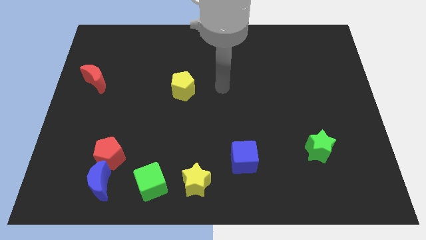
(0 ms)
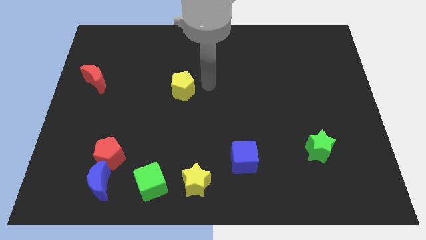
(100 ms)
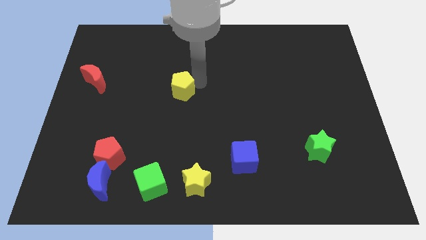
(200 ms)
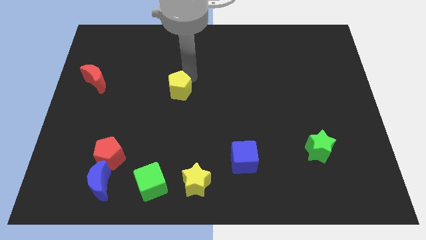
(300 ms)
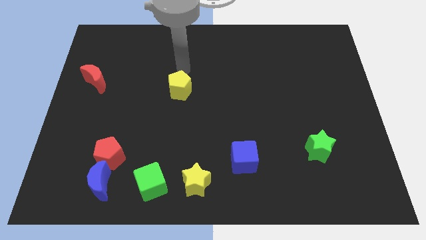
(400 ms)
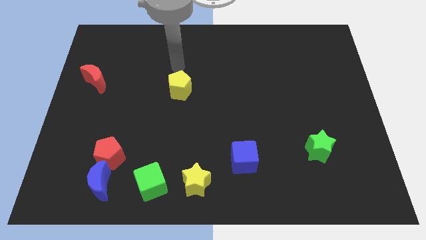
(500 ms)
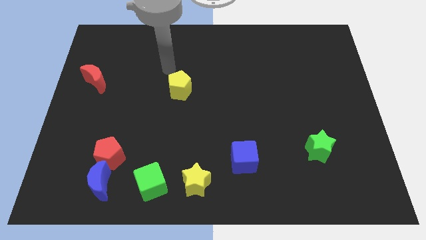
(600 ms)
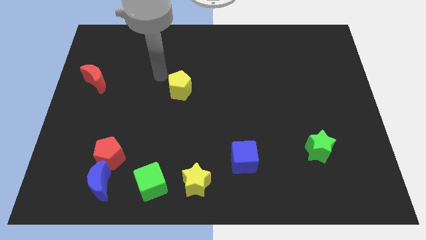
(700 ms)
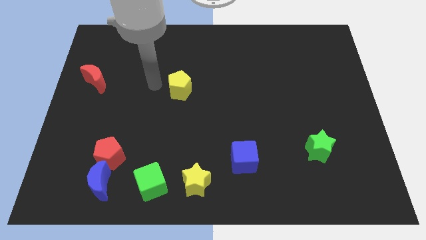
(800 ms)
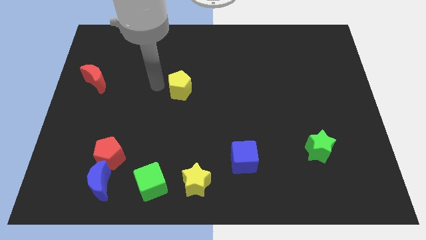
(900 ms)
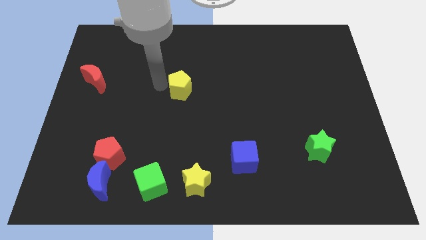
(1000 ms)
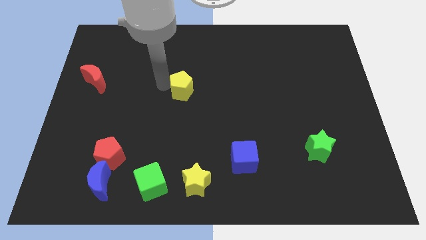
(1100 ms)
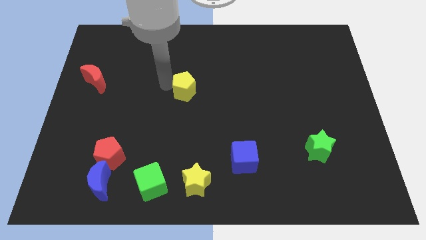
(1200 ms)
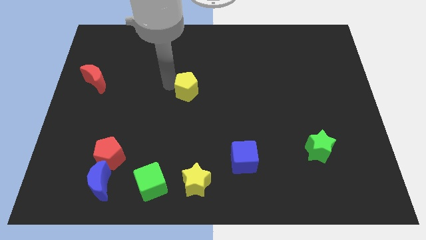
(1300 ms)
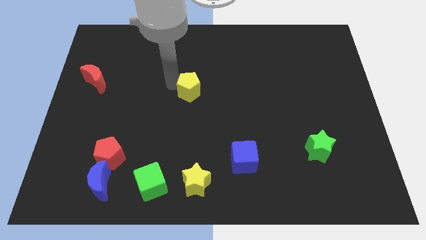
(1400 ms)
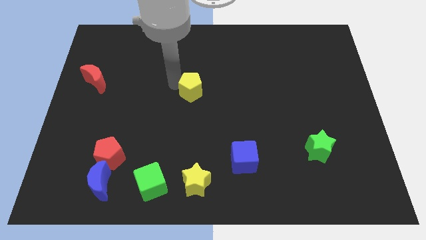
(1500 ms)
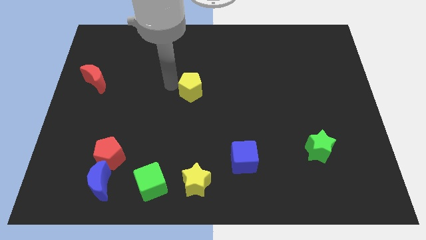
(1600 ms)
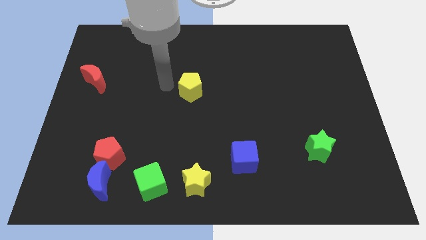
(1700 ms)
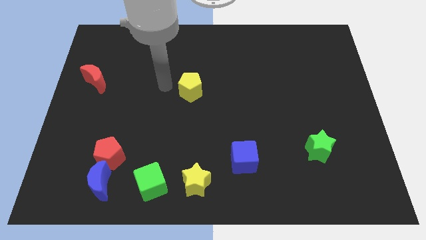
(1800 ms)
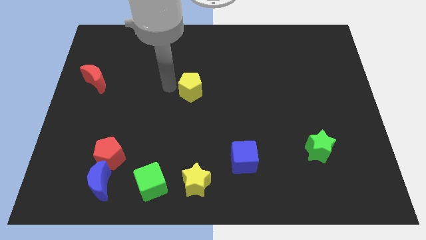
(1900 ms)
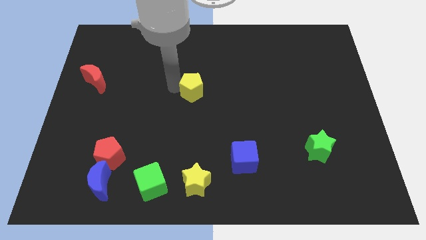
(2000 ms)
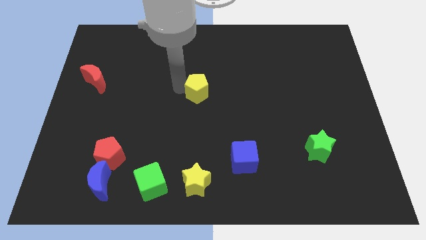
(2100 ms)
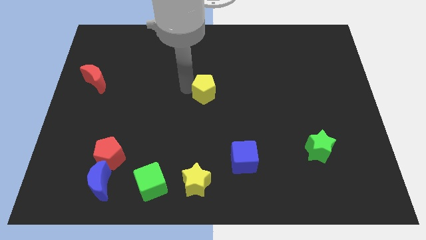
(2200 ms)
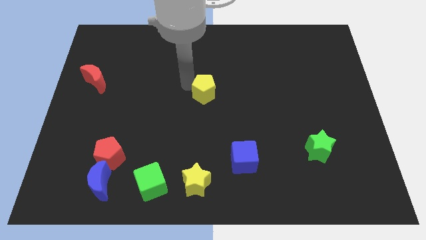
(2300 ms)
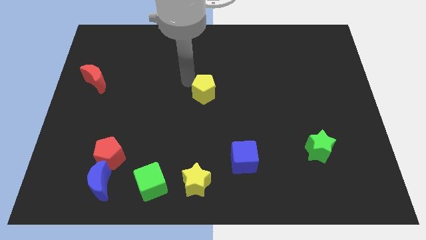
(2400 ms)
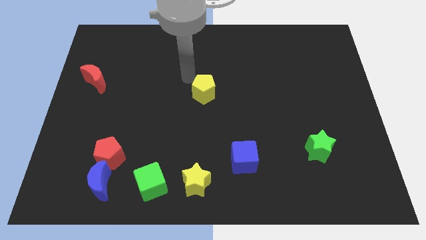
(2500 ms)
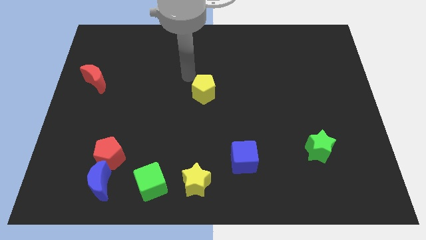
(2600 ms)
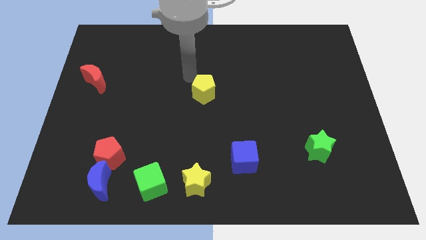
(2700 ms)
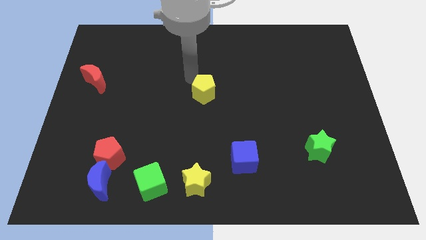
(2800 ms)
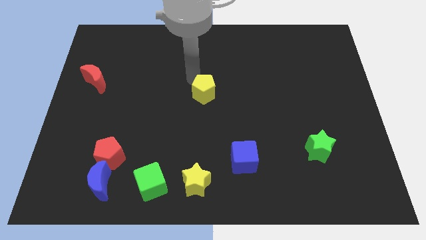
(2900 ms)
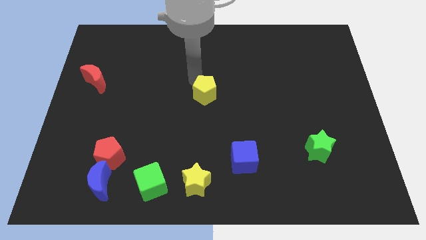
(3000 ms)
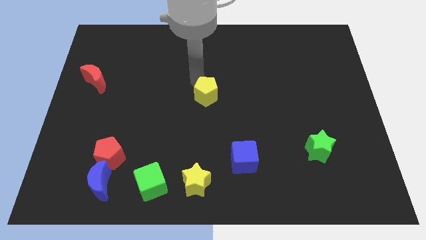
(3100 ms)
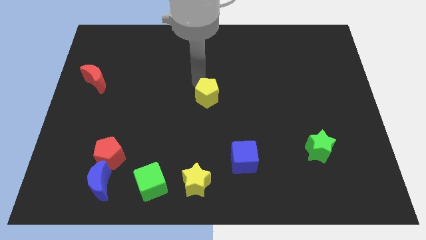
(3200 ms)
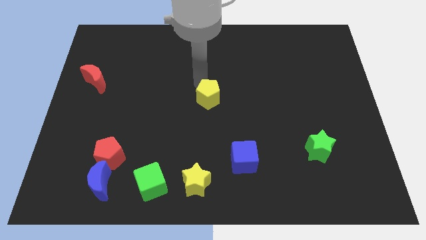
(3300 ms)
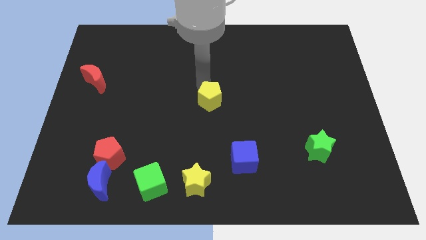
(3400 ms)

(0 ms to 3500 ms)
slightly move the yellow pentagon downwards and to the right diagonally

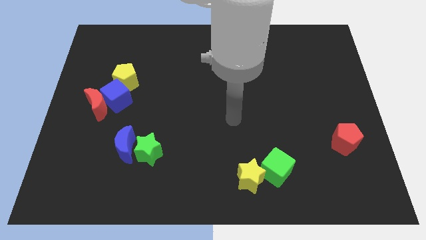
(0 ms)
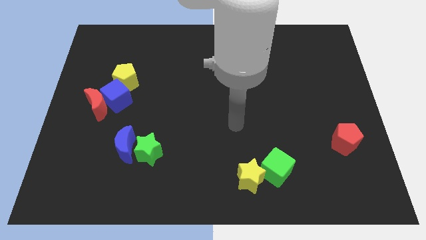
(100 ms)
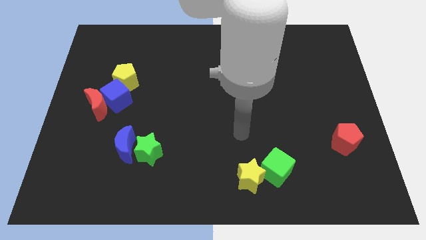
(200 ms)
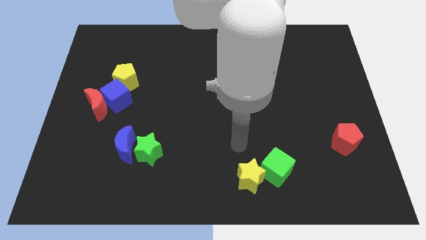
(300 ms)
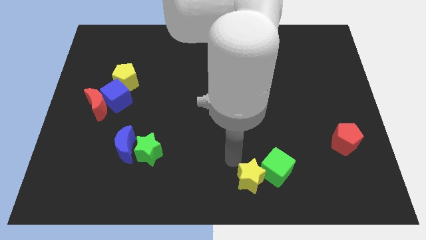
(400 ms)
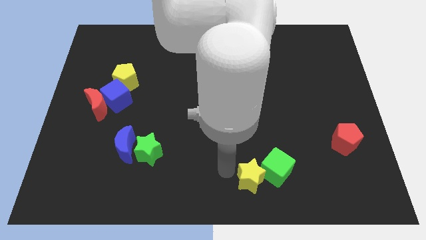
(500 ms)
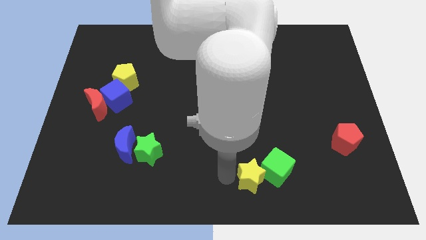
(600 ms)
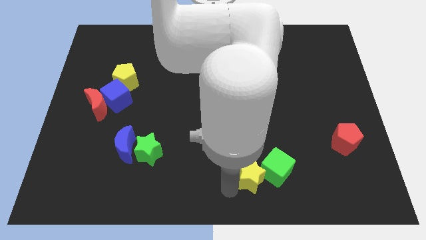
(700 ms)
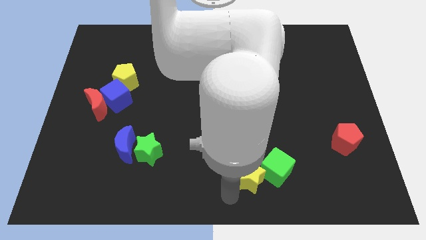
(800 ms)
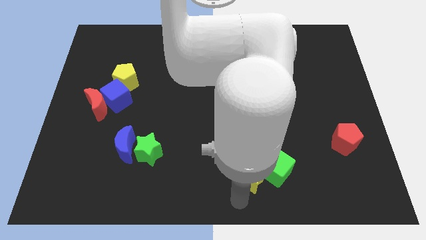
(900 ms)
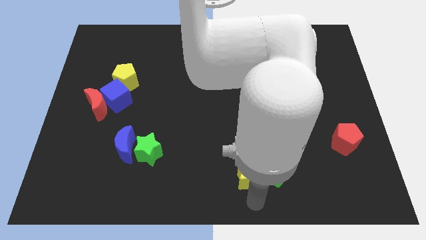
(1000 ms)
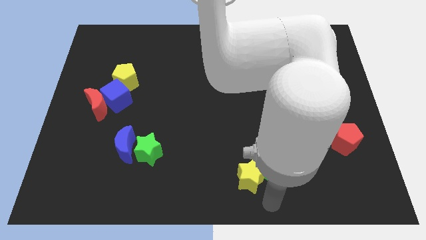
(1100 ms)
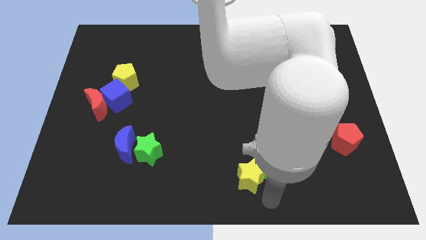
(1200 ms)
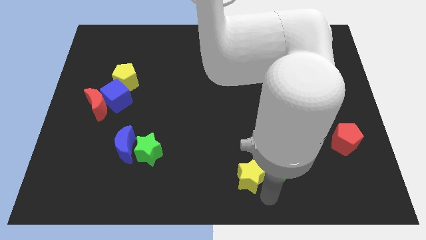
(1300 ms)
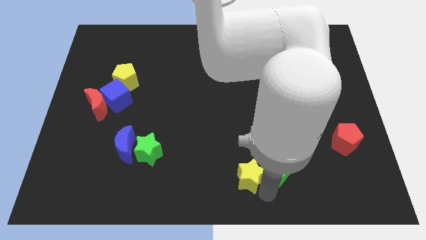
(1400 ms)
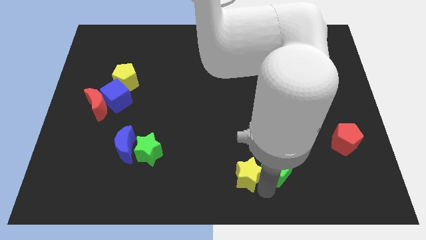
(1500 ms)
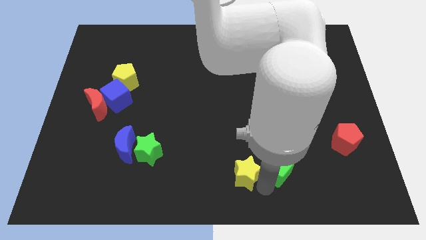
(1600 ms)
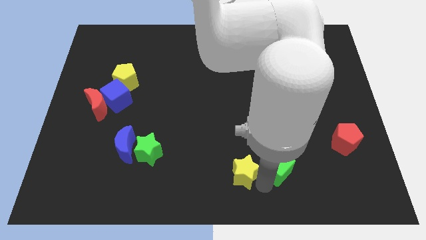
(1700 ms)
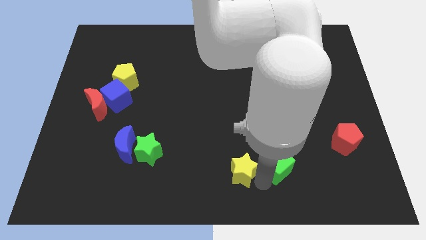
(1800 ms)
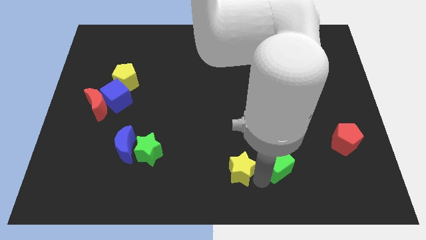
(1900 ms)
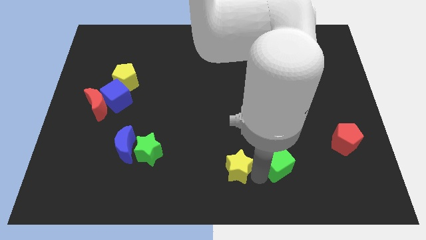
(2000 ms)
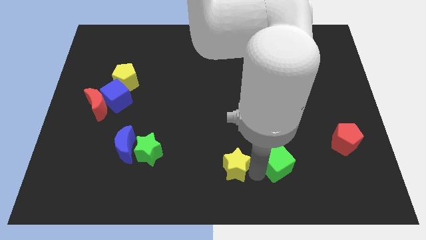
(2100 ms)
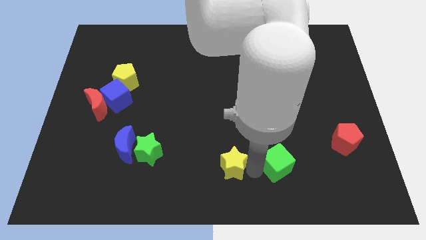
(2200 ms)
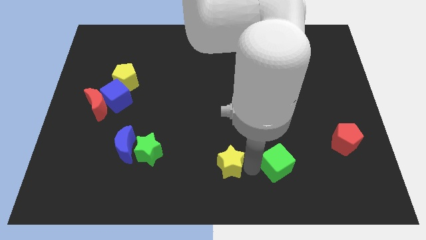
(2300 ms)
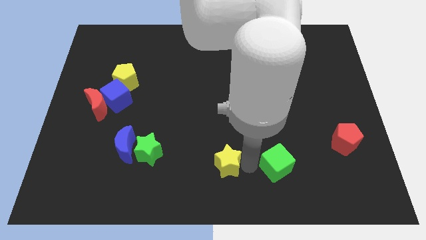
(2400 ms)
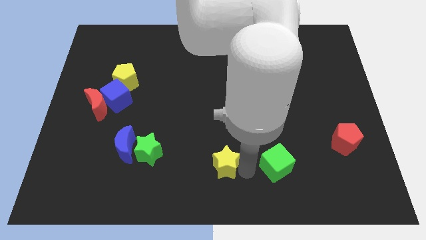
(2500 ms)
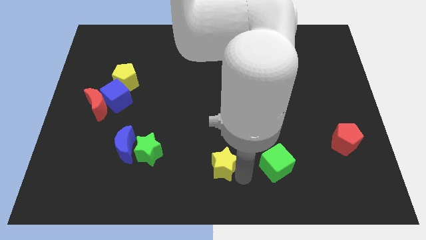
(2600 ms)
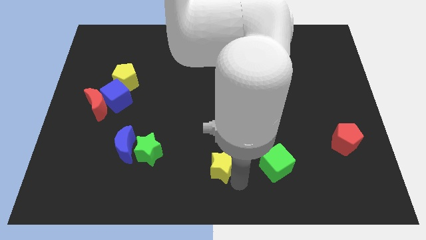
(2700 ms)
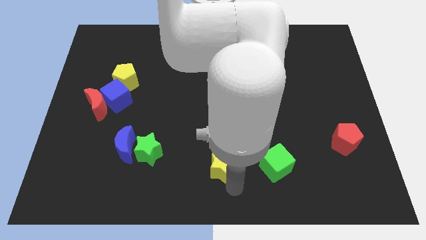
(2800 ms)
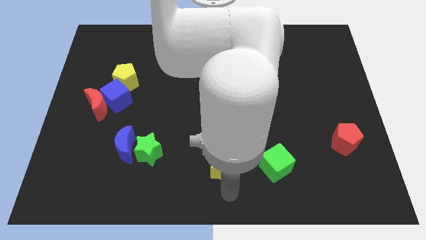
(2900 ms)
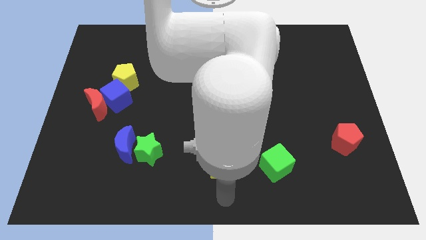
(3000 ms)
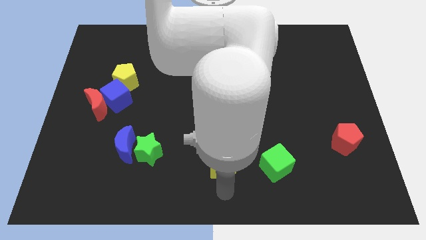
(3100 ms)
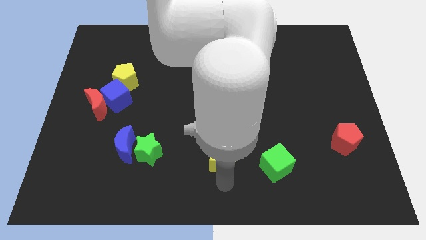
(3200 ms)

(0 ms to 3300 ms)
move the yellow star diagonally upwards and to the left a little bit

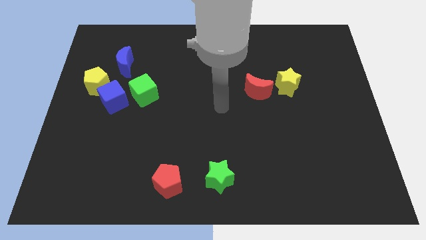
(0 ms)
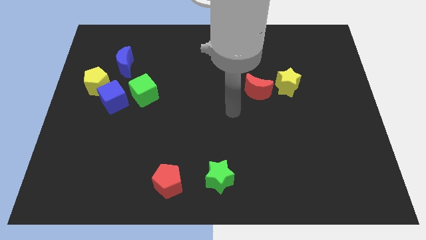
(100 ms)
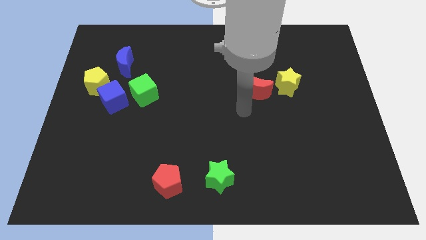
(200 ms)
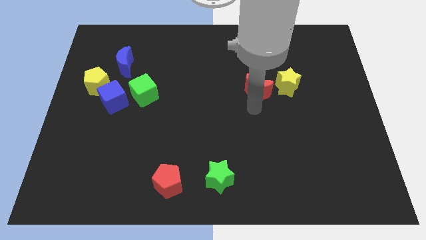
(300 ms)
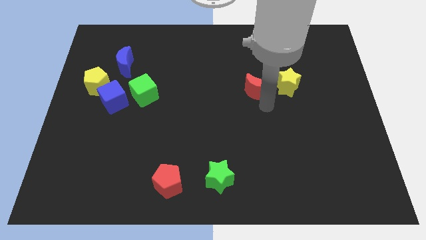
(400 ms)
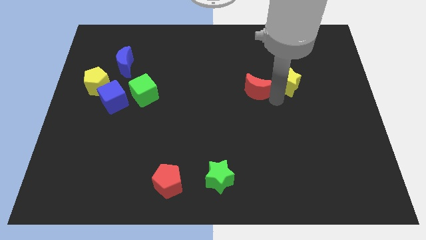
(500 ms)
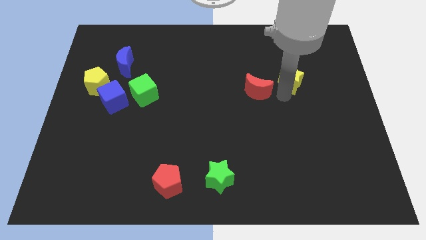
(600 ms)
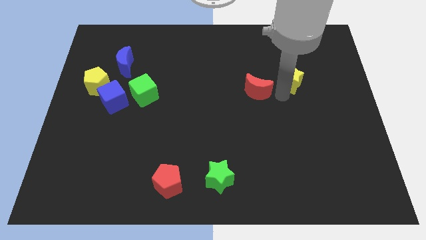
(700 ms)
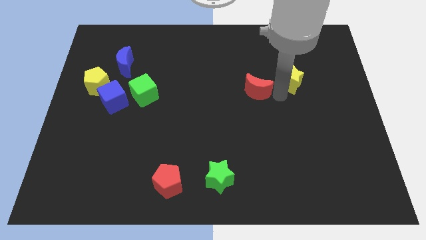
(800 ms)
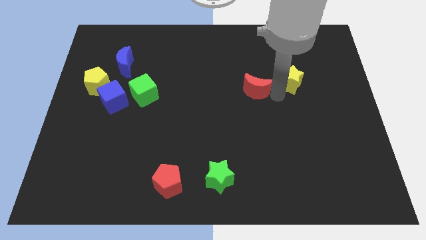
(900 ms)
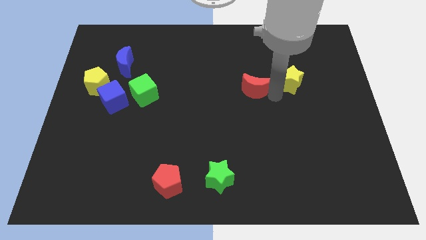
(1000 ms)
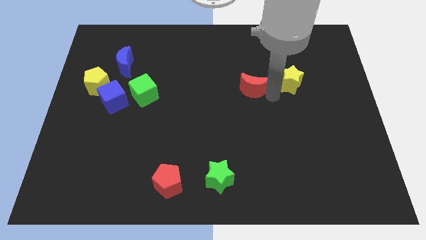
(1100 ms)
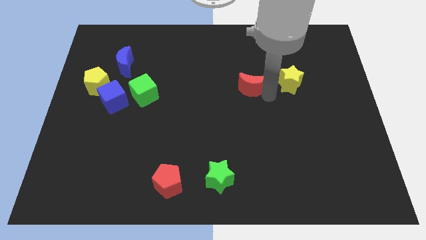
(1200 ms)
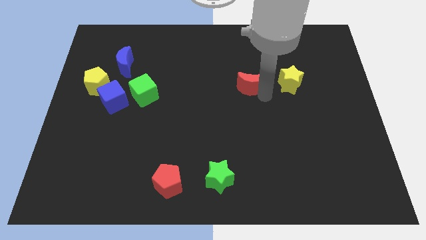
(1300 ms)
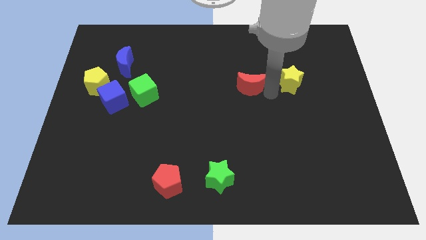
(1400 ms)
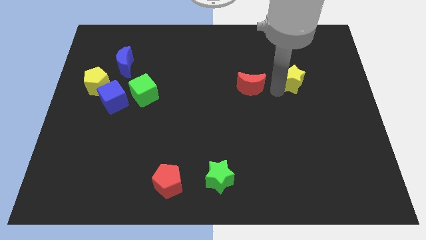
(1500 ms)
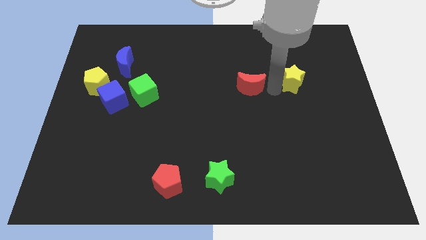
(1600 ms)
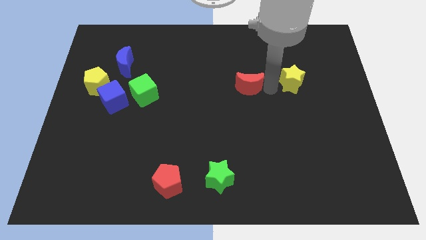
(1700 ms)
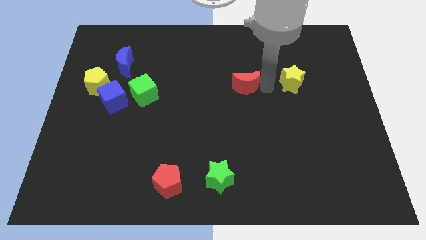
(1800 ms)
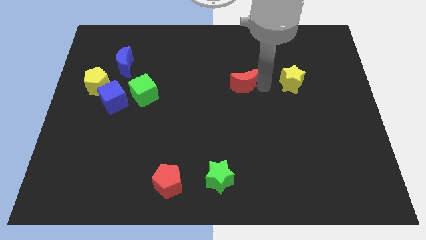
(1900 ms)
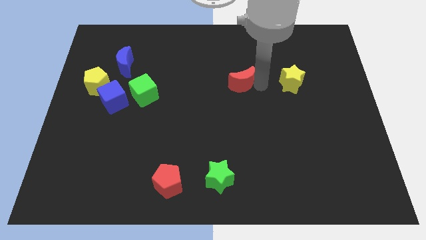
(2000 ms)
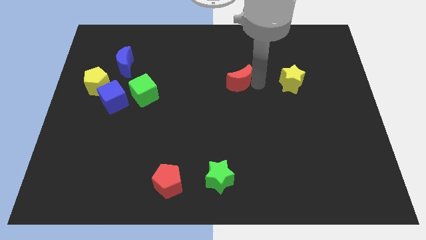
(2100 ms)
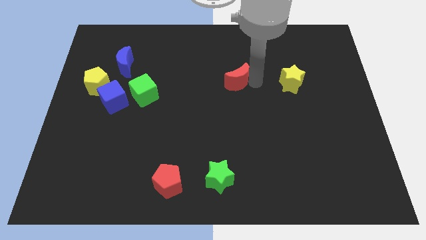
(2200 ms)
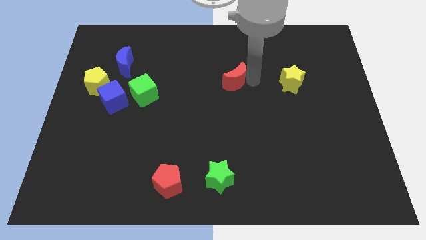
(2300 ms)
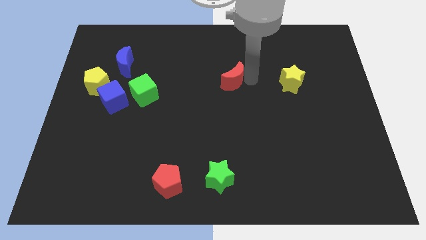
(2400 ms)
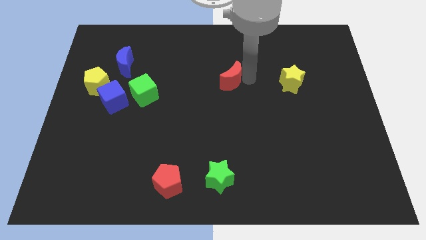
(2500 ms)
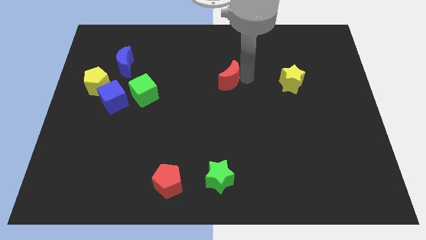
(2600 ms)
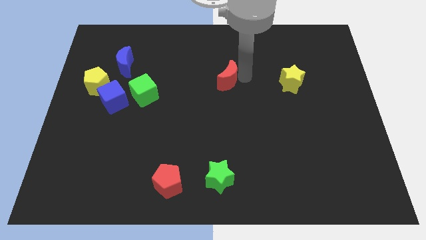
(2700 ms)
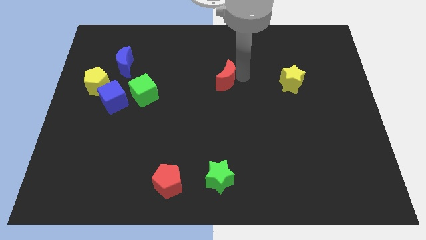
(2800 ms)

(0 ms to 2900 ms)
move the red moon left a little bit
